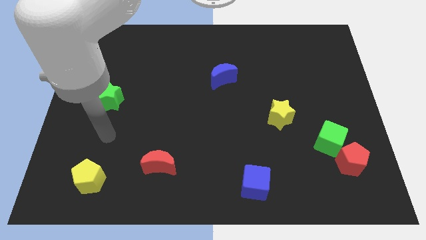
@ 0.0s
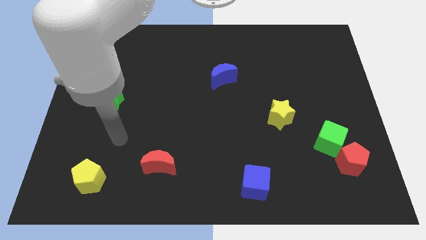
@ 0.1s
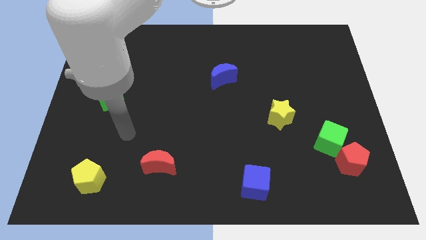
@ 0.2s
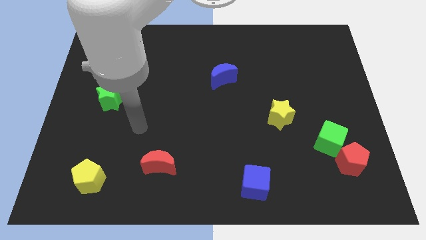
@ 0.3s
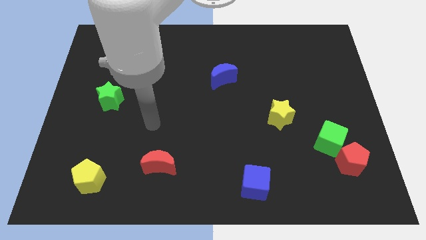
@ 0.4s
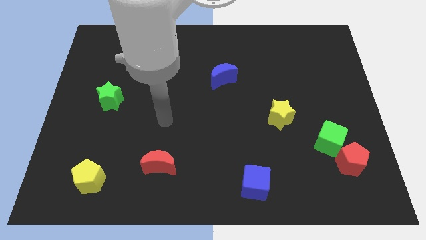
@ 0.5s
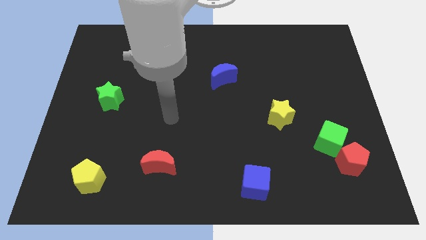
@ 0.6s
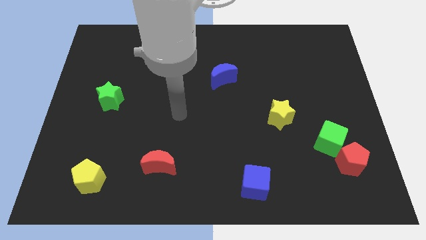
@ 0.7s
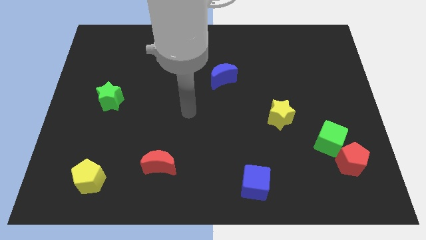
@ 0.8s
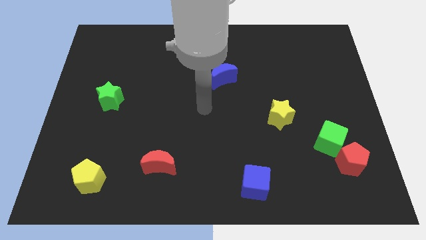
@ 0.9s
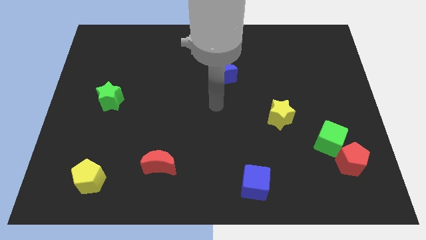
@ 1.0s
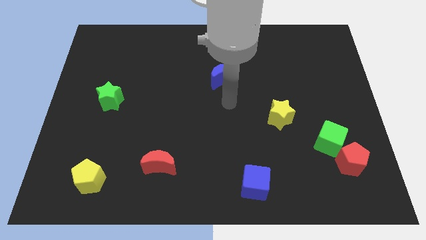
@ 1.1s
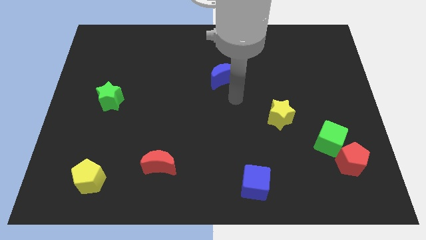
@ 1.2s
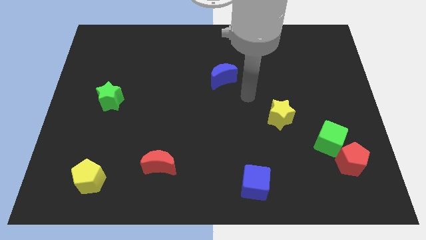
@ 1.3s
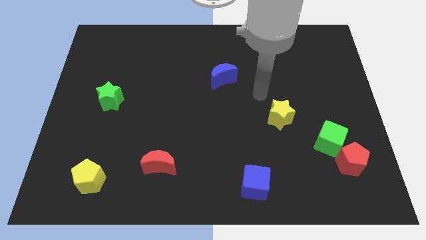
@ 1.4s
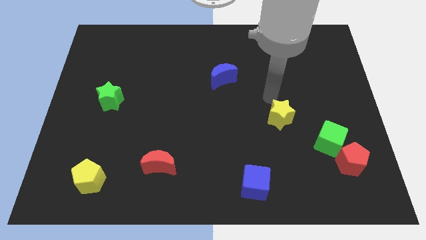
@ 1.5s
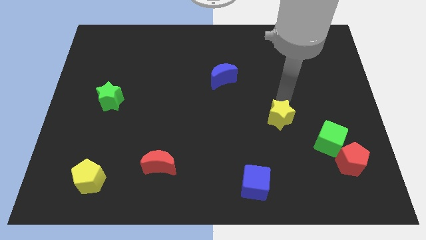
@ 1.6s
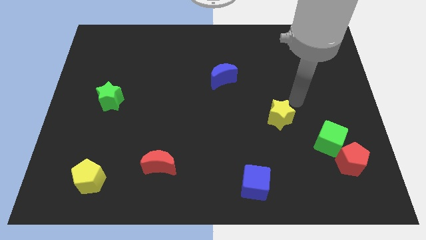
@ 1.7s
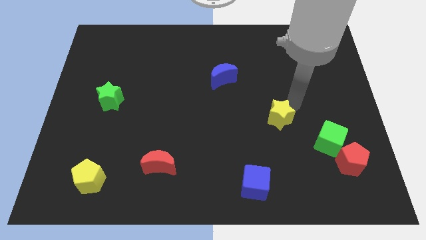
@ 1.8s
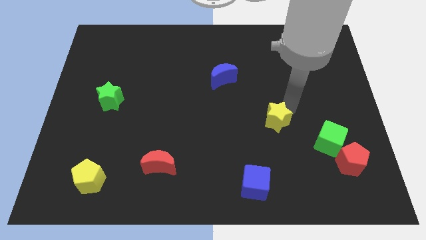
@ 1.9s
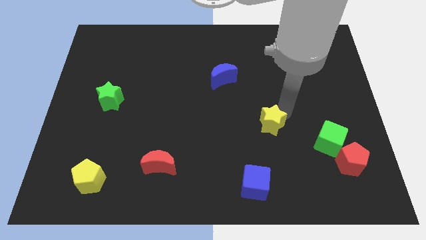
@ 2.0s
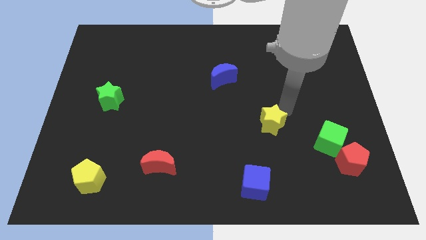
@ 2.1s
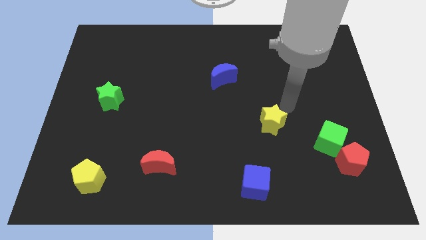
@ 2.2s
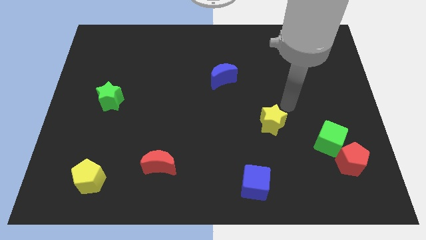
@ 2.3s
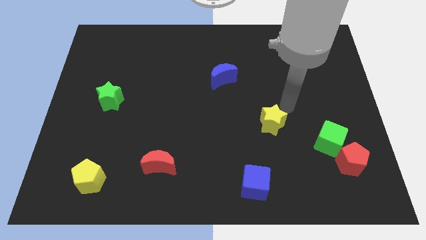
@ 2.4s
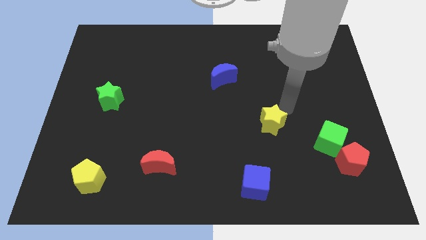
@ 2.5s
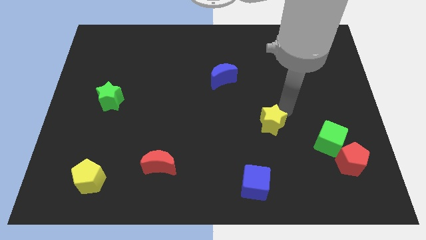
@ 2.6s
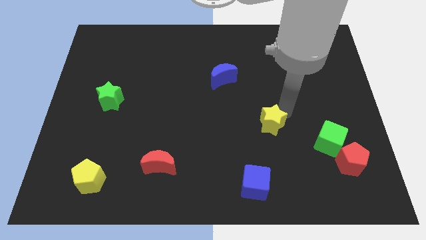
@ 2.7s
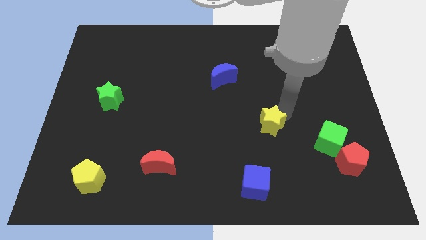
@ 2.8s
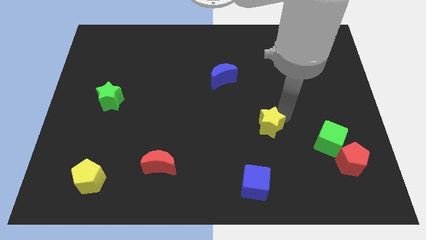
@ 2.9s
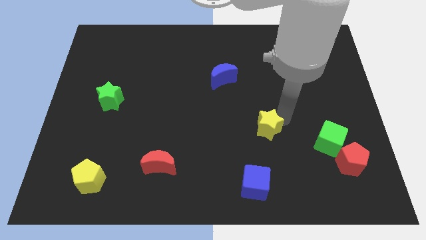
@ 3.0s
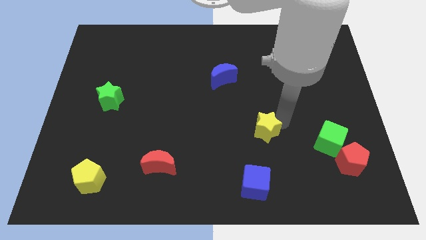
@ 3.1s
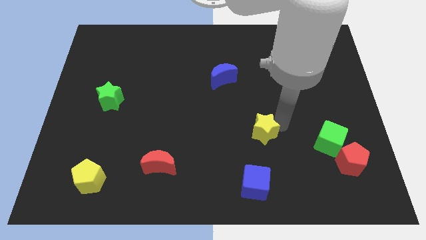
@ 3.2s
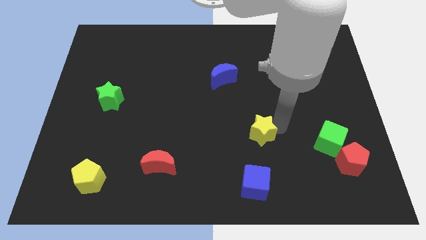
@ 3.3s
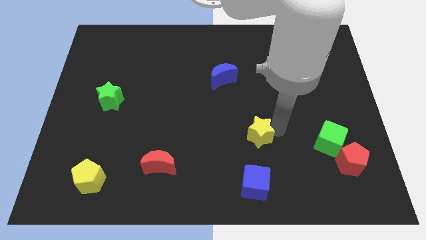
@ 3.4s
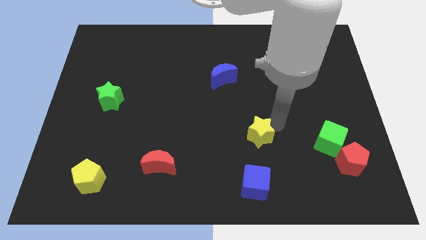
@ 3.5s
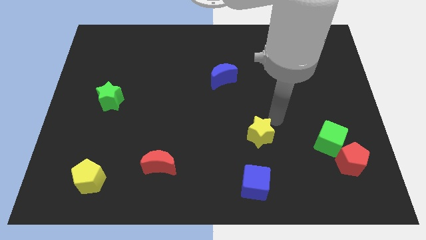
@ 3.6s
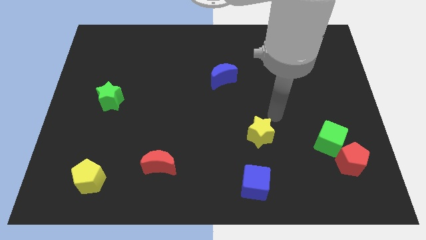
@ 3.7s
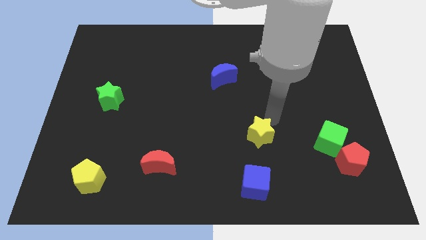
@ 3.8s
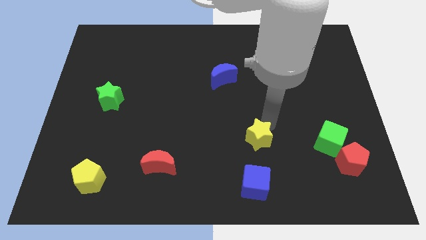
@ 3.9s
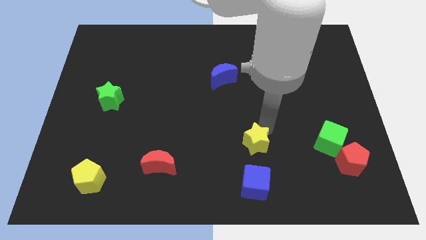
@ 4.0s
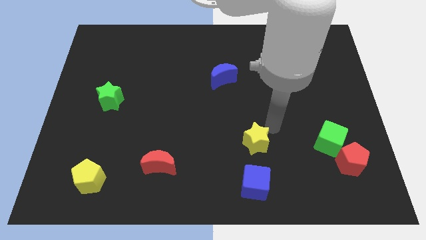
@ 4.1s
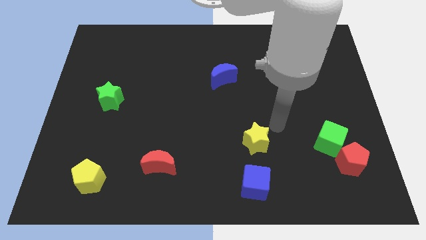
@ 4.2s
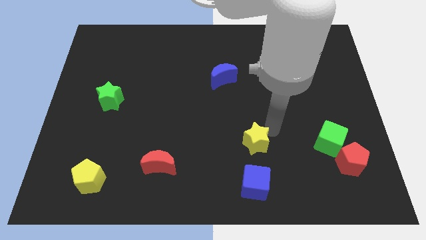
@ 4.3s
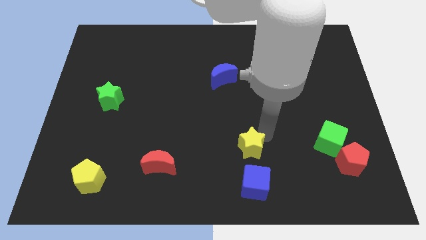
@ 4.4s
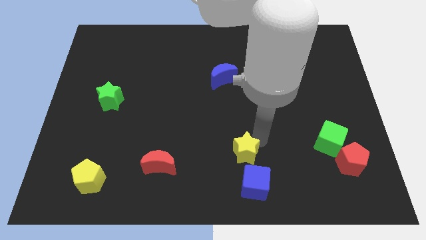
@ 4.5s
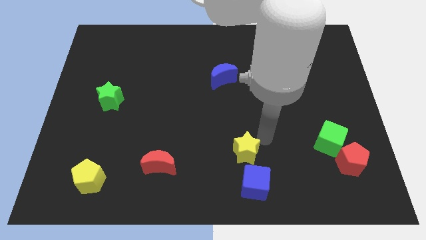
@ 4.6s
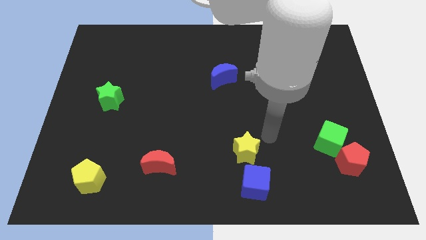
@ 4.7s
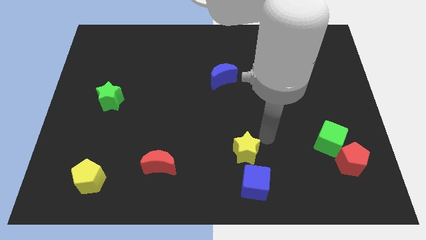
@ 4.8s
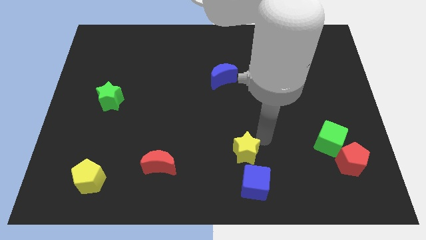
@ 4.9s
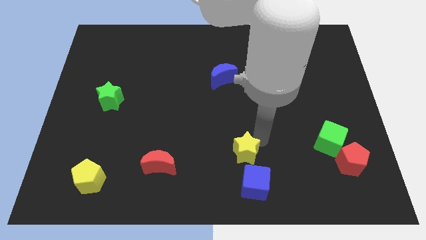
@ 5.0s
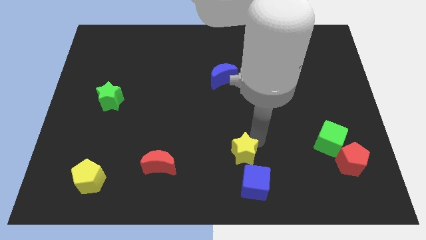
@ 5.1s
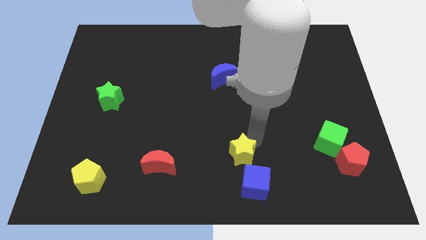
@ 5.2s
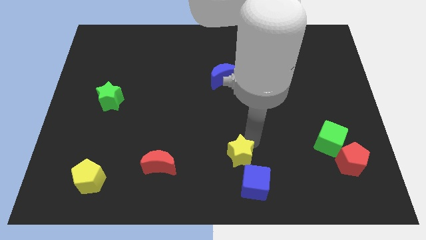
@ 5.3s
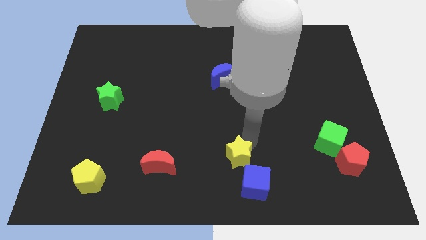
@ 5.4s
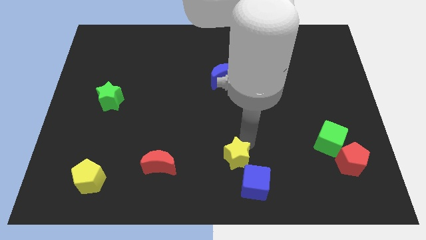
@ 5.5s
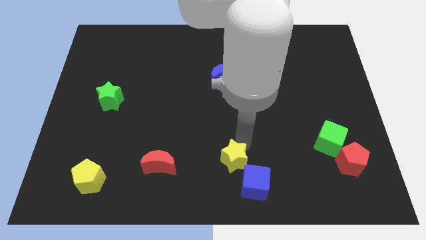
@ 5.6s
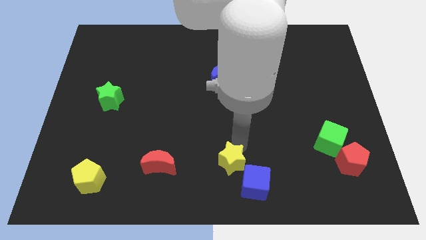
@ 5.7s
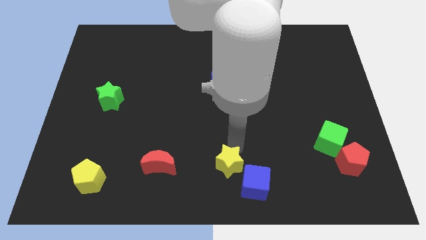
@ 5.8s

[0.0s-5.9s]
push the yellow star left of the blue cube

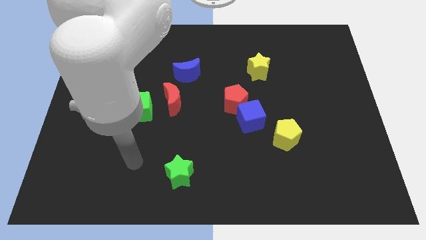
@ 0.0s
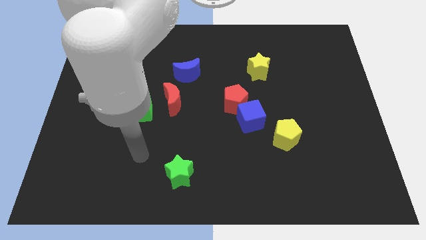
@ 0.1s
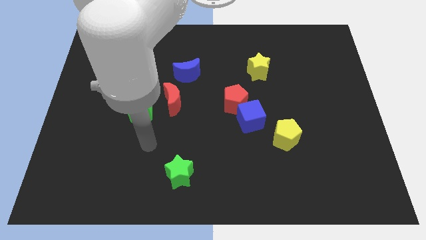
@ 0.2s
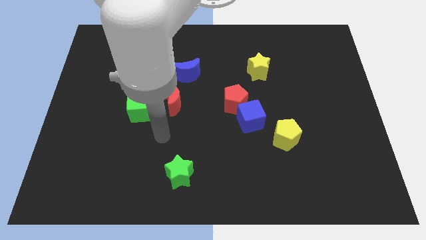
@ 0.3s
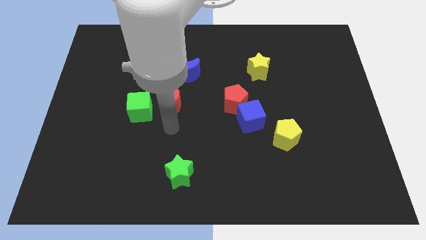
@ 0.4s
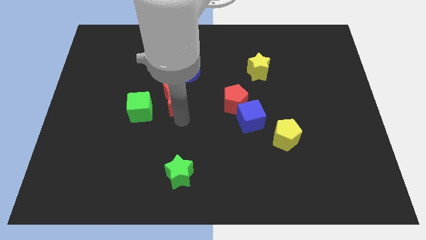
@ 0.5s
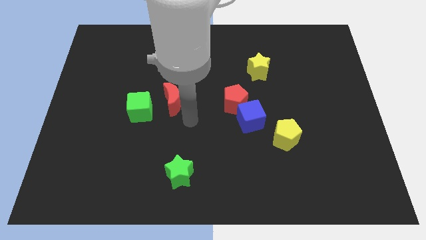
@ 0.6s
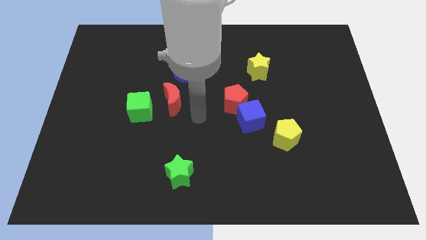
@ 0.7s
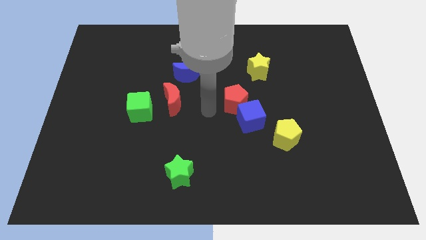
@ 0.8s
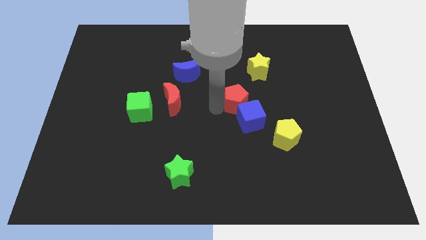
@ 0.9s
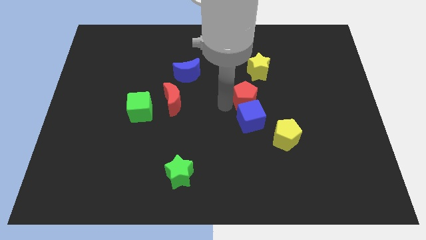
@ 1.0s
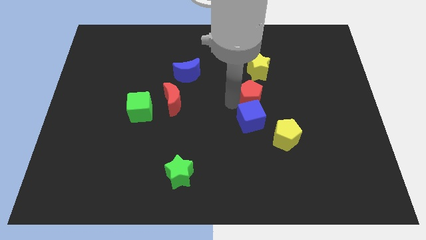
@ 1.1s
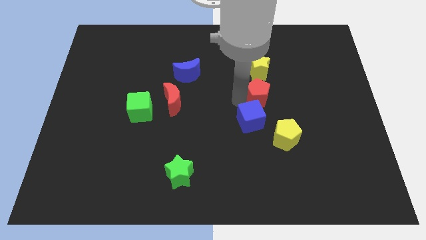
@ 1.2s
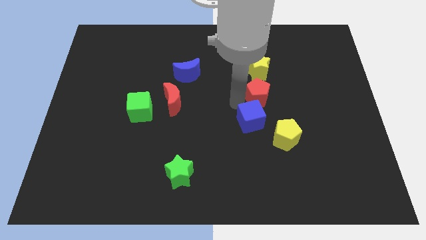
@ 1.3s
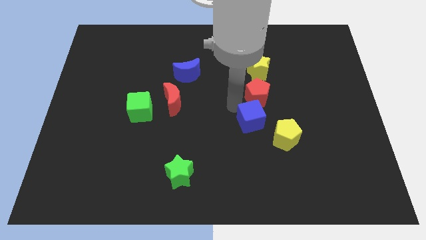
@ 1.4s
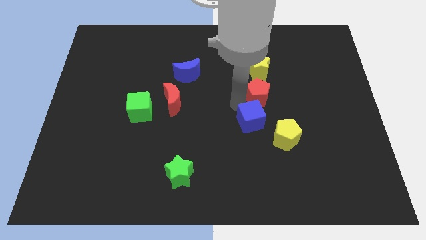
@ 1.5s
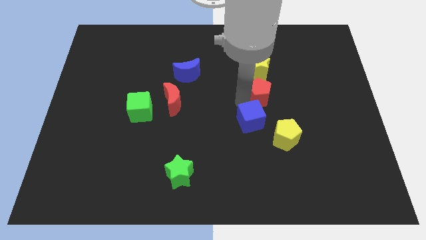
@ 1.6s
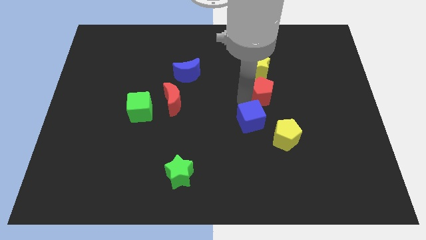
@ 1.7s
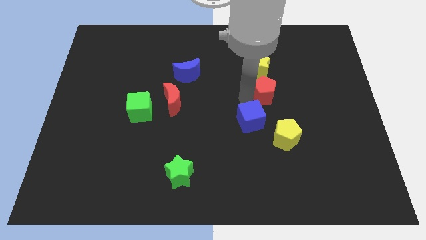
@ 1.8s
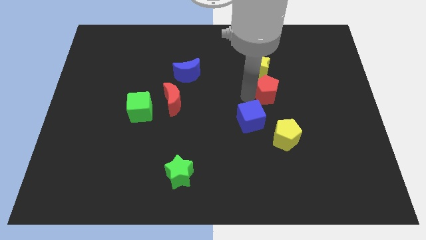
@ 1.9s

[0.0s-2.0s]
push the red pentagon to the bottom right side of the yellow star
